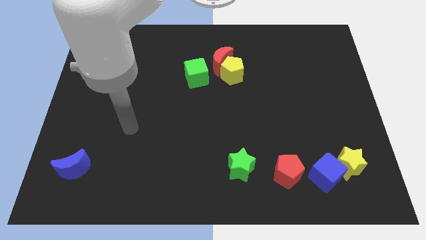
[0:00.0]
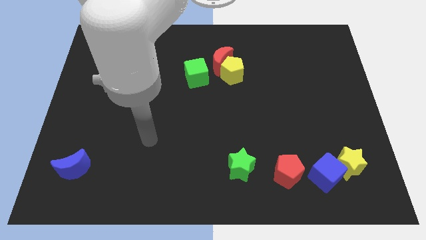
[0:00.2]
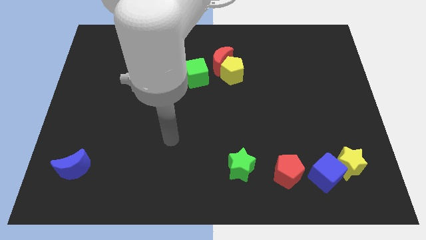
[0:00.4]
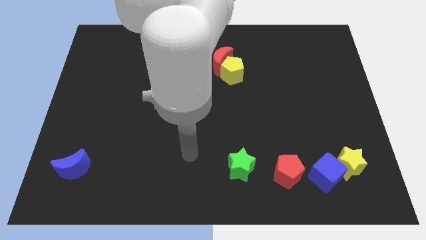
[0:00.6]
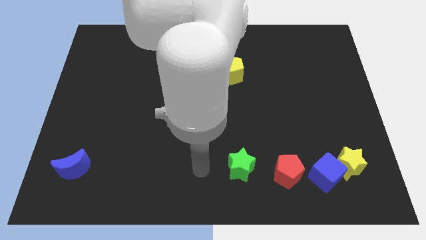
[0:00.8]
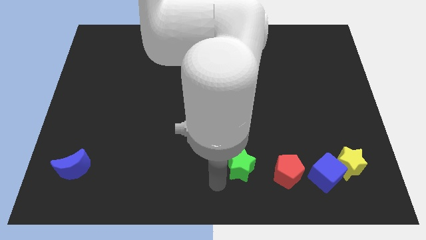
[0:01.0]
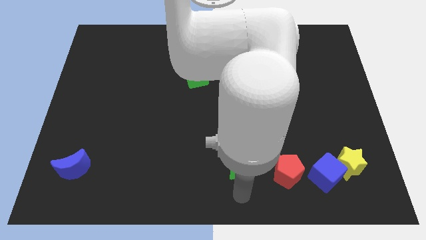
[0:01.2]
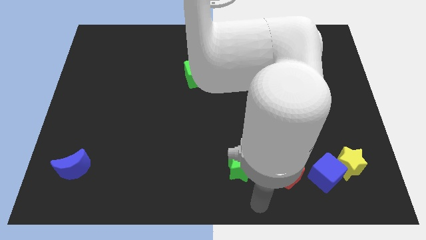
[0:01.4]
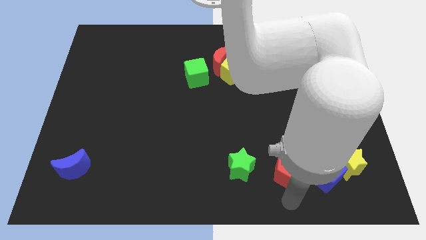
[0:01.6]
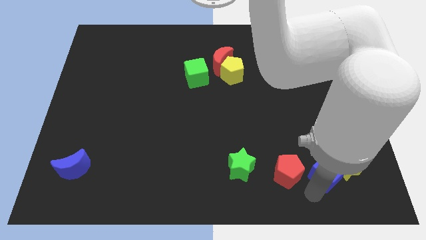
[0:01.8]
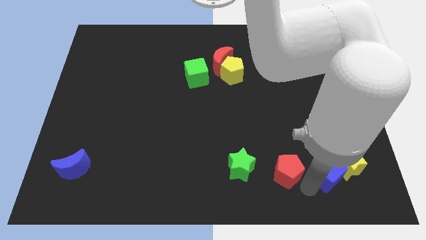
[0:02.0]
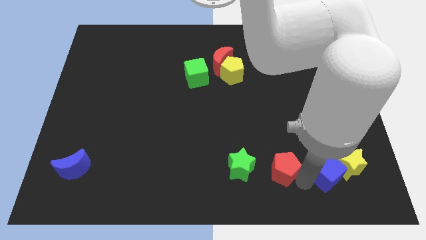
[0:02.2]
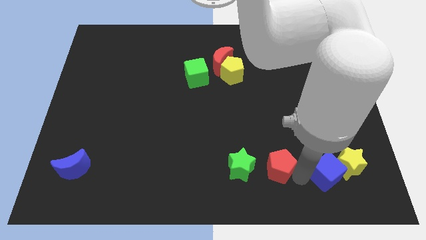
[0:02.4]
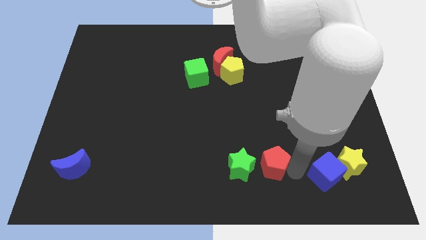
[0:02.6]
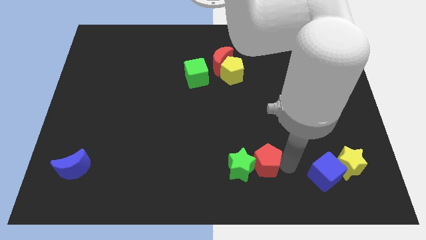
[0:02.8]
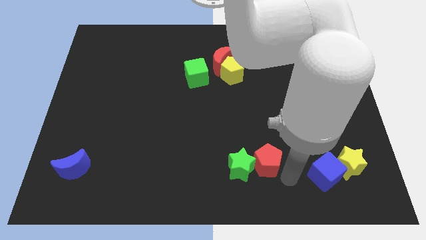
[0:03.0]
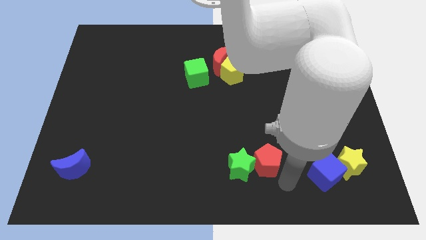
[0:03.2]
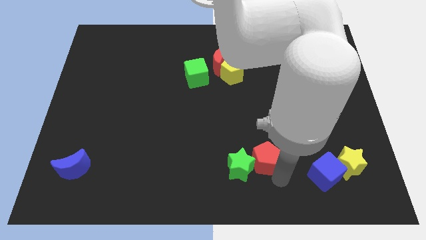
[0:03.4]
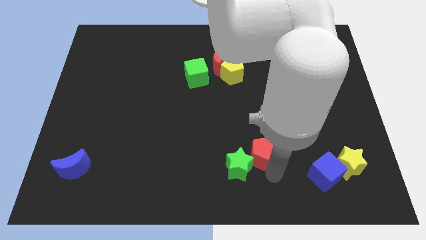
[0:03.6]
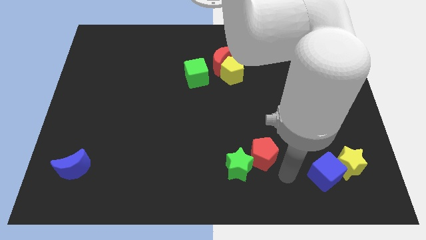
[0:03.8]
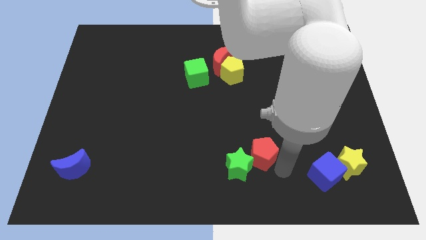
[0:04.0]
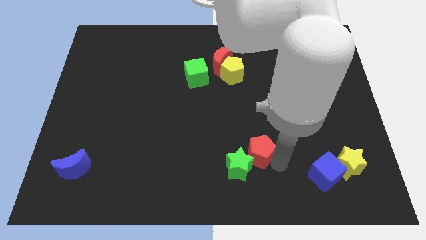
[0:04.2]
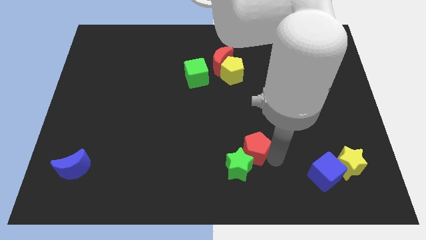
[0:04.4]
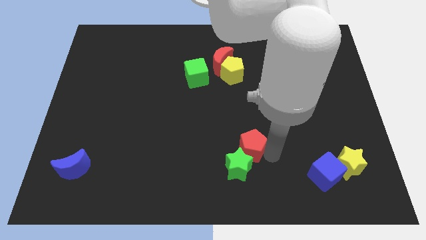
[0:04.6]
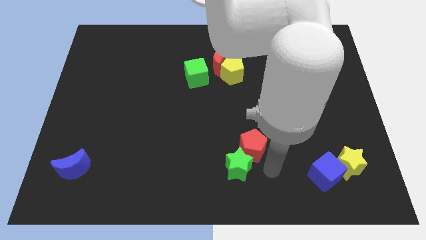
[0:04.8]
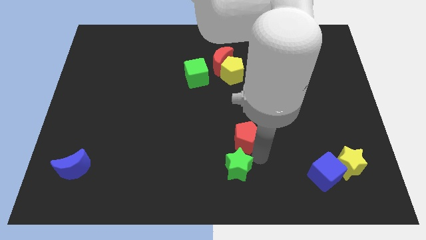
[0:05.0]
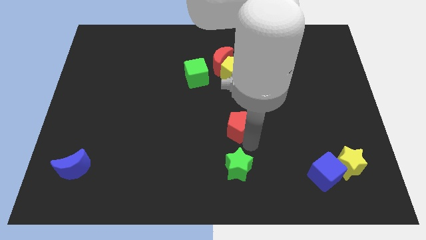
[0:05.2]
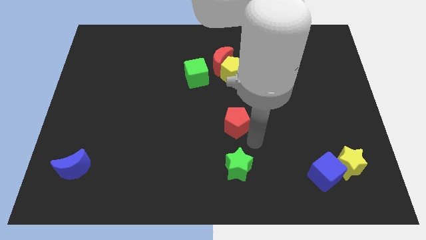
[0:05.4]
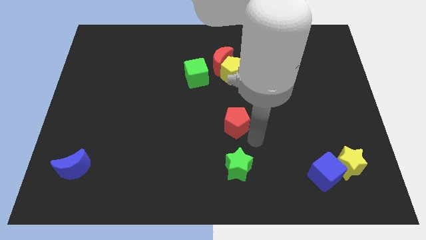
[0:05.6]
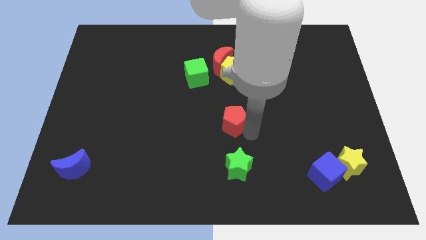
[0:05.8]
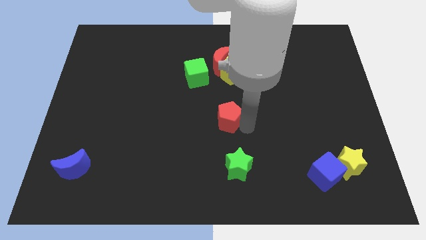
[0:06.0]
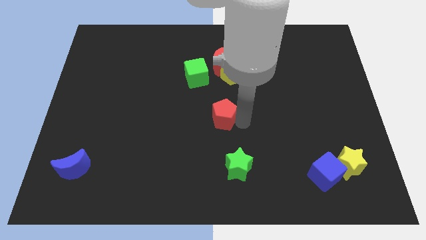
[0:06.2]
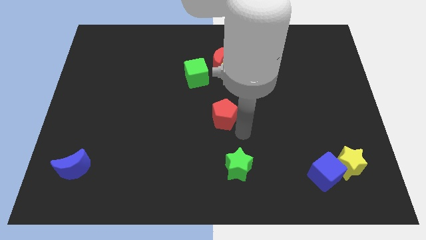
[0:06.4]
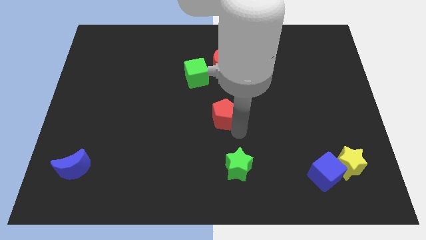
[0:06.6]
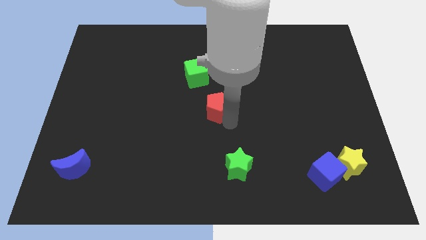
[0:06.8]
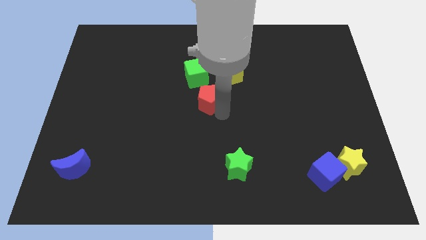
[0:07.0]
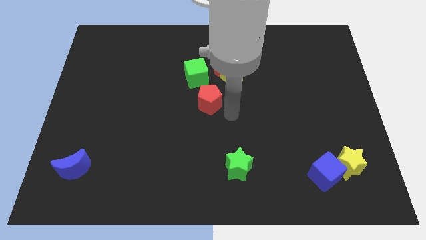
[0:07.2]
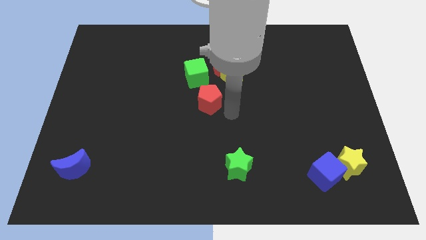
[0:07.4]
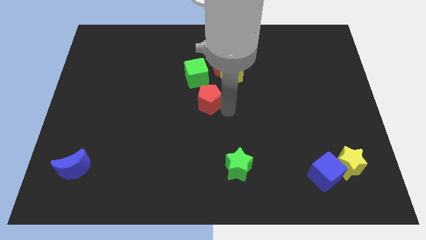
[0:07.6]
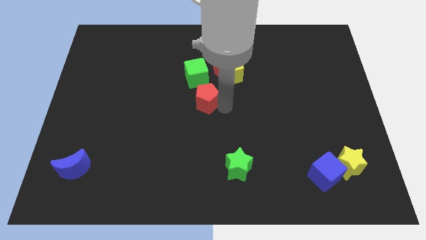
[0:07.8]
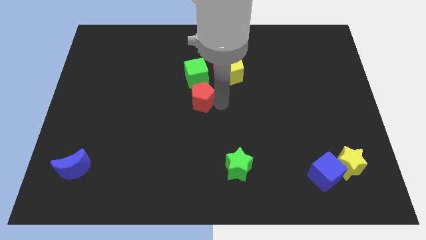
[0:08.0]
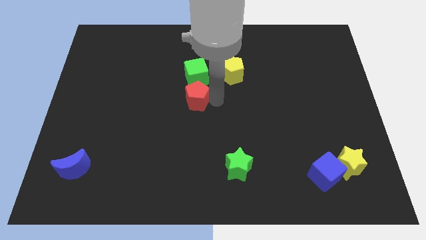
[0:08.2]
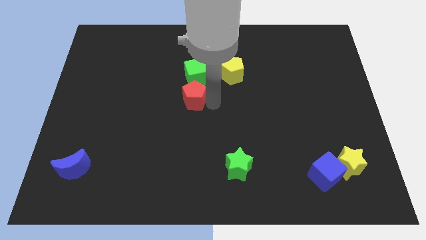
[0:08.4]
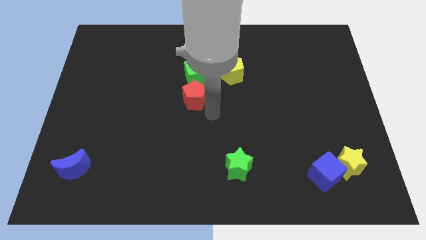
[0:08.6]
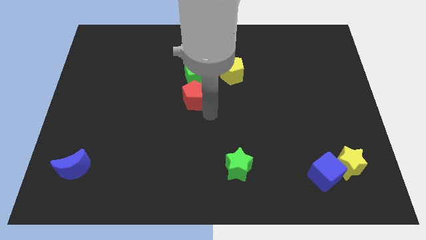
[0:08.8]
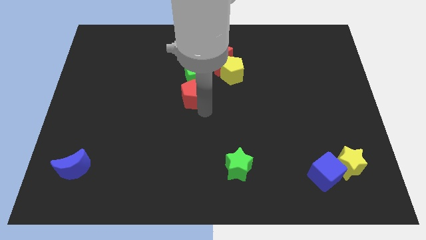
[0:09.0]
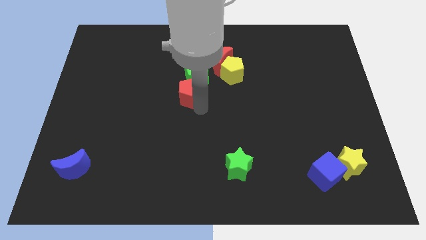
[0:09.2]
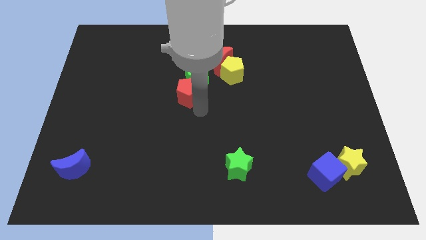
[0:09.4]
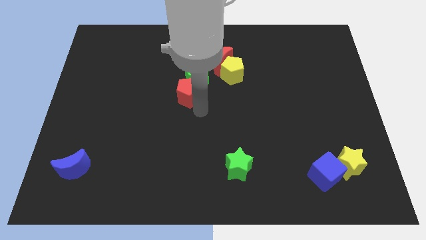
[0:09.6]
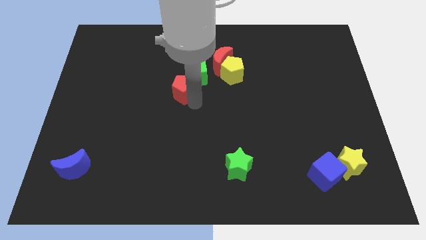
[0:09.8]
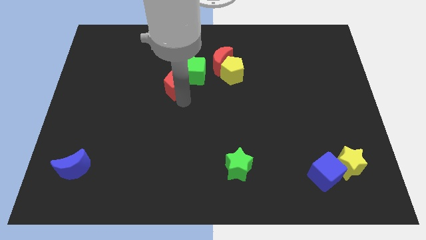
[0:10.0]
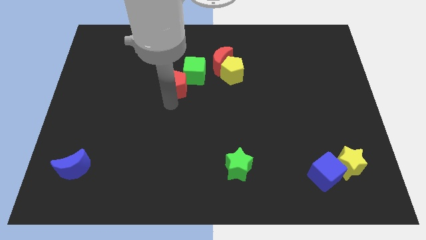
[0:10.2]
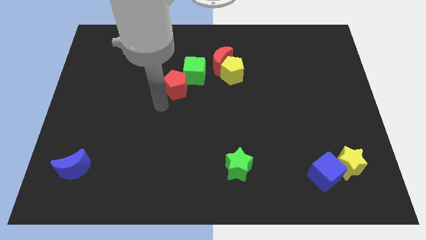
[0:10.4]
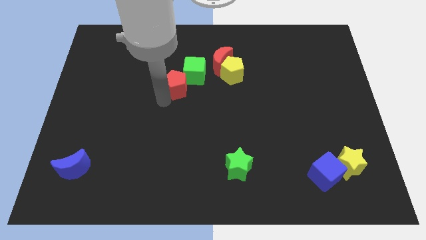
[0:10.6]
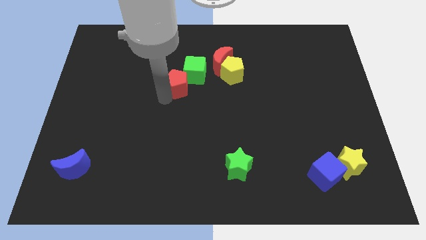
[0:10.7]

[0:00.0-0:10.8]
move the red pentagon left of the yellow pentagon

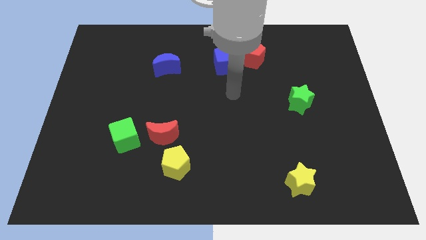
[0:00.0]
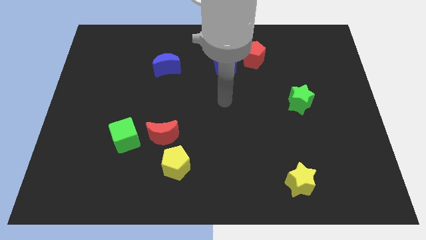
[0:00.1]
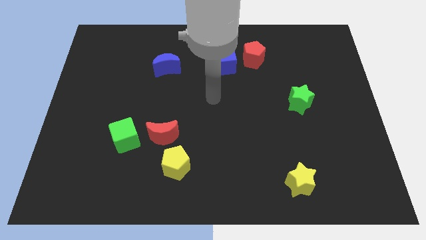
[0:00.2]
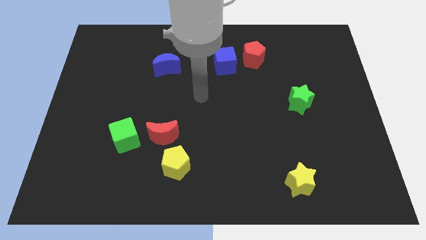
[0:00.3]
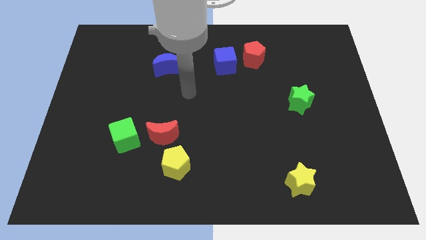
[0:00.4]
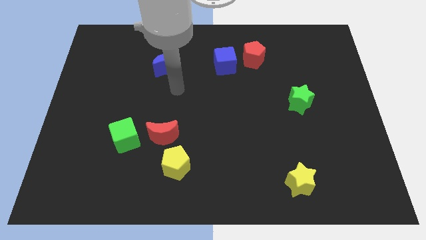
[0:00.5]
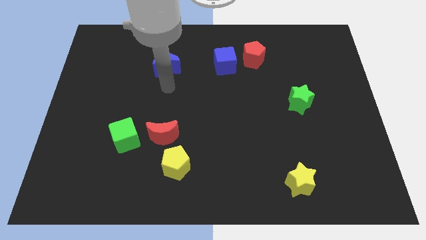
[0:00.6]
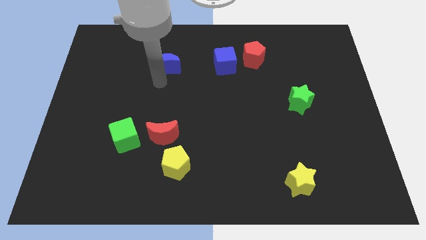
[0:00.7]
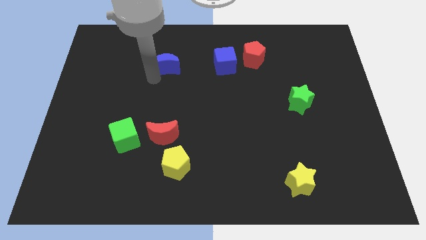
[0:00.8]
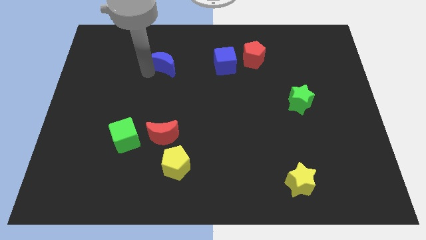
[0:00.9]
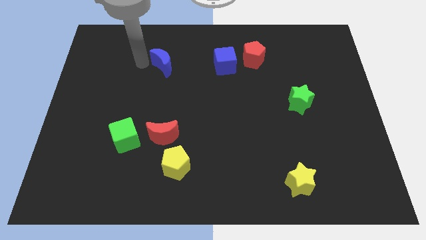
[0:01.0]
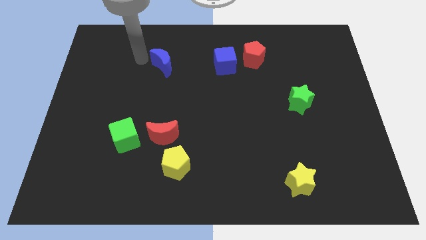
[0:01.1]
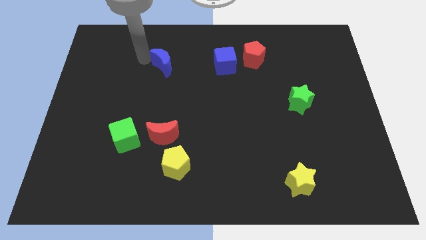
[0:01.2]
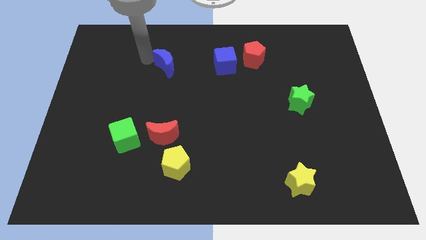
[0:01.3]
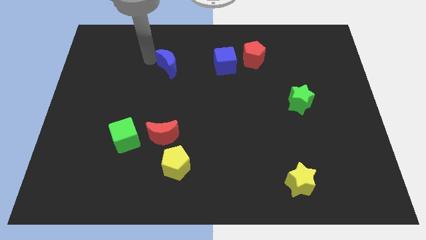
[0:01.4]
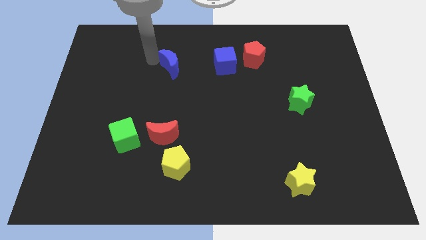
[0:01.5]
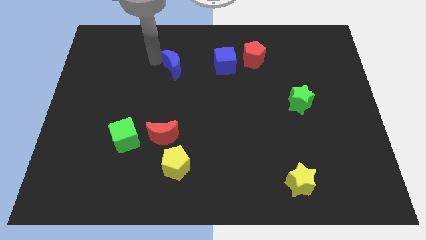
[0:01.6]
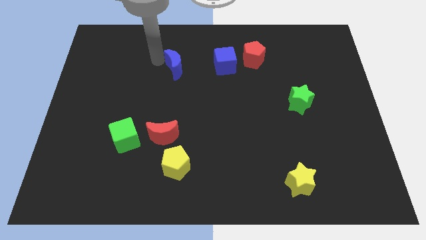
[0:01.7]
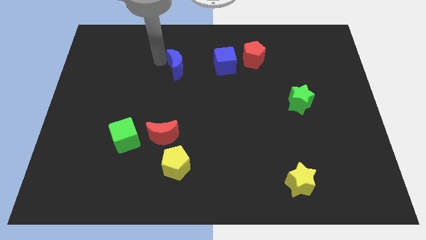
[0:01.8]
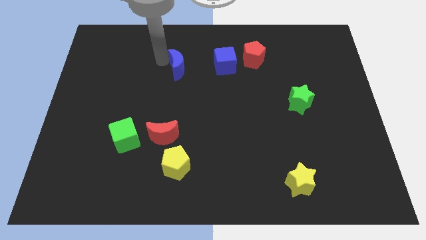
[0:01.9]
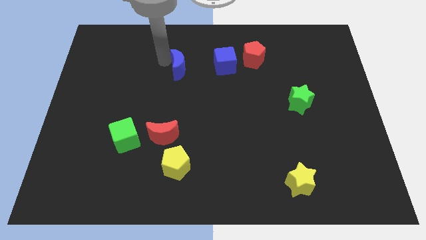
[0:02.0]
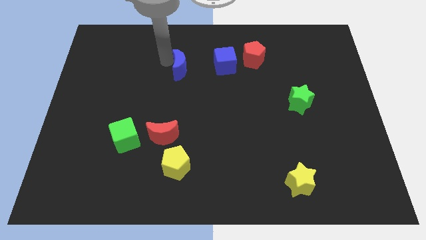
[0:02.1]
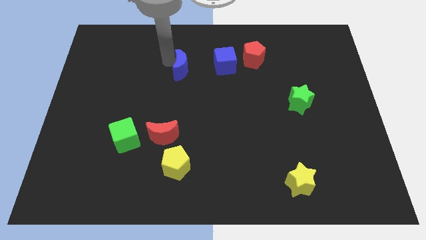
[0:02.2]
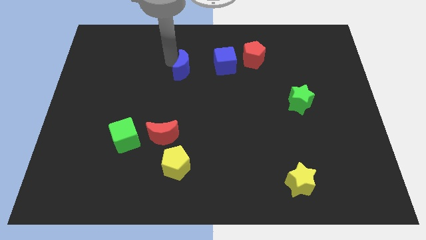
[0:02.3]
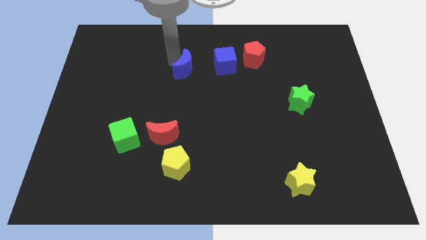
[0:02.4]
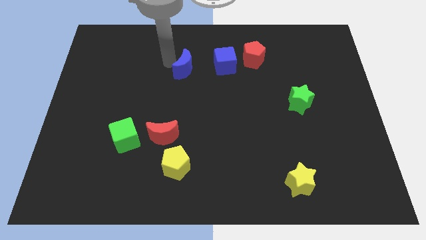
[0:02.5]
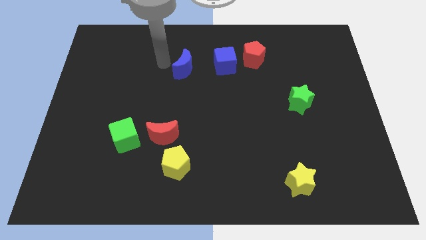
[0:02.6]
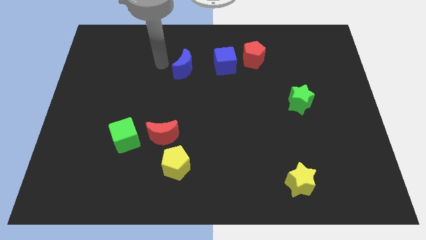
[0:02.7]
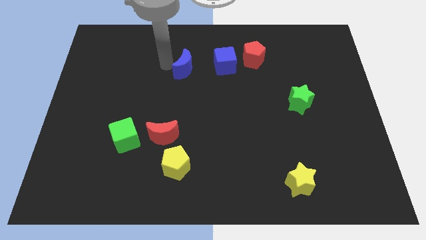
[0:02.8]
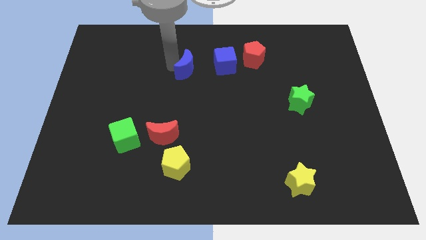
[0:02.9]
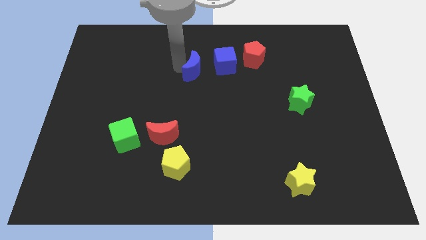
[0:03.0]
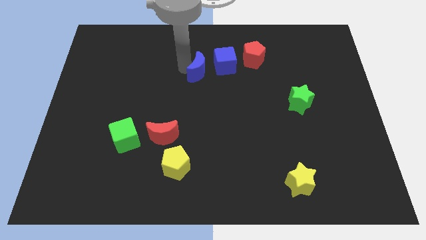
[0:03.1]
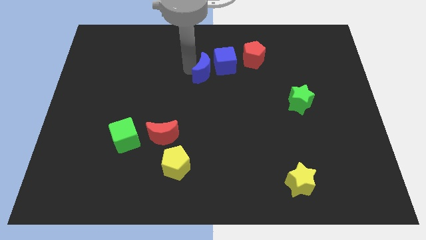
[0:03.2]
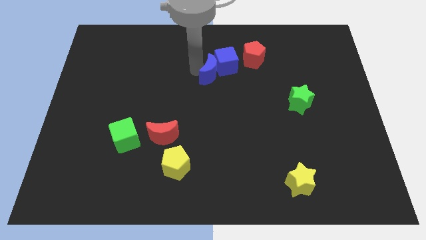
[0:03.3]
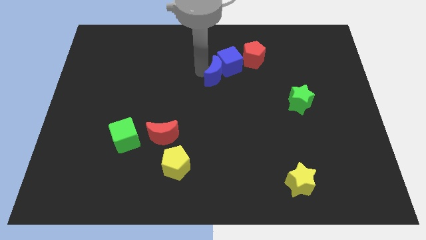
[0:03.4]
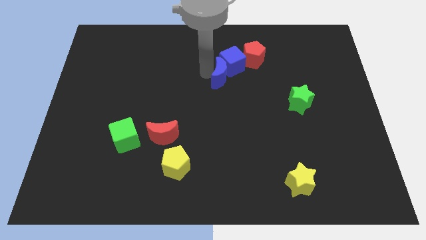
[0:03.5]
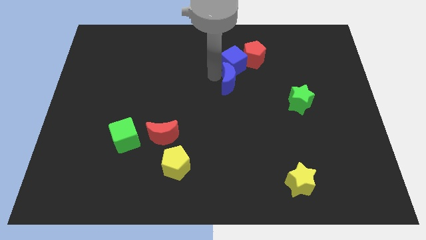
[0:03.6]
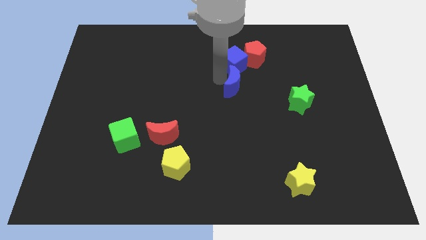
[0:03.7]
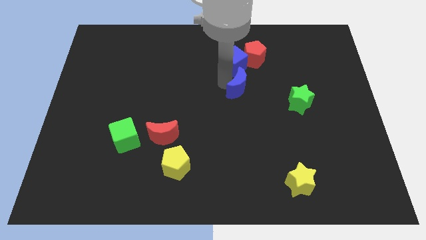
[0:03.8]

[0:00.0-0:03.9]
put the blue moon to the bottom right side of the blue cube
